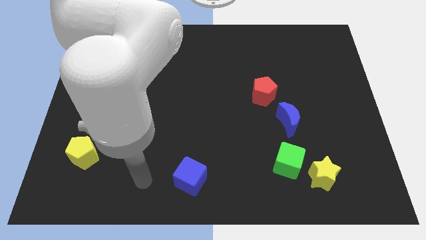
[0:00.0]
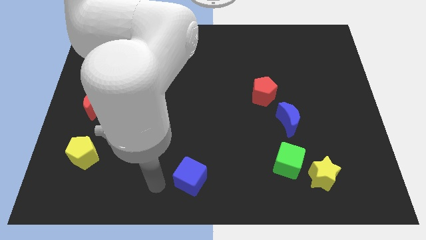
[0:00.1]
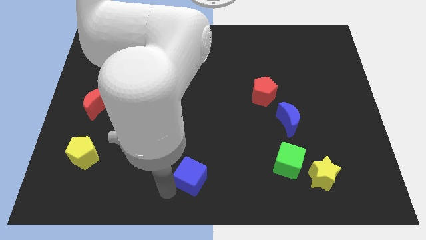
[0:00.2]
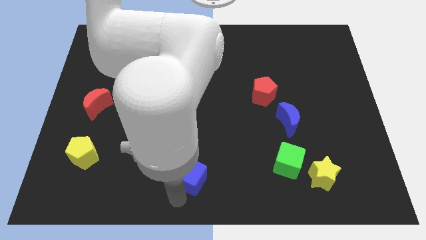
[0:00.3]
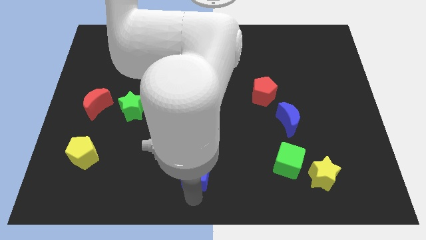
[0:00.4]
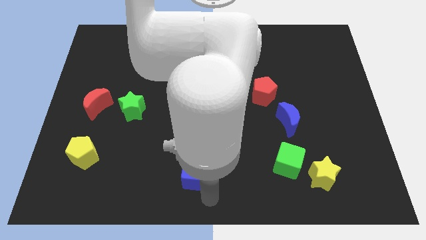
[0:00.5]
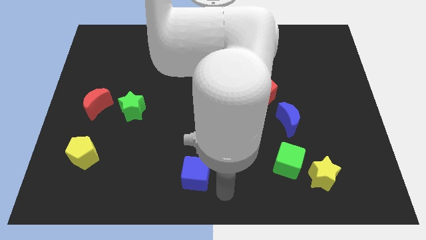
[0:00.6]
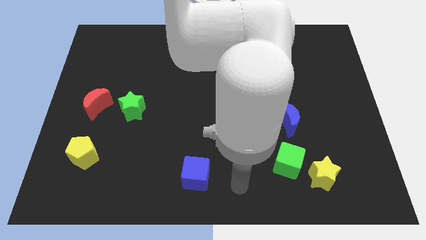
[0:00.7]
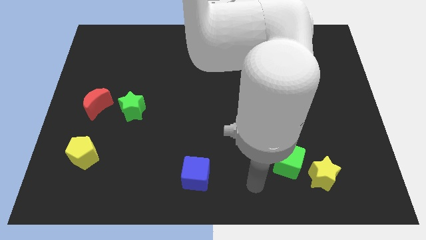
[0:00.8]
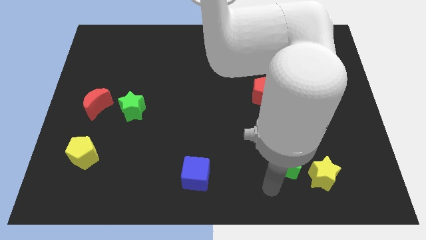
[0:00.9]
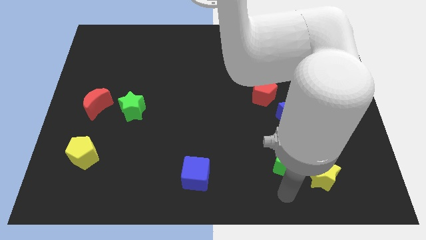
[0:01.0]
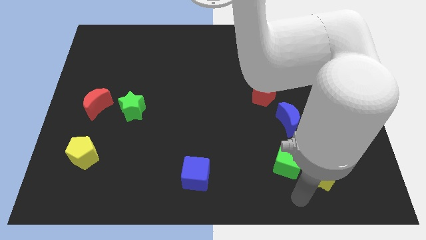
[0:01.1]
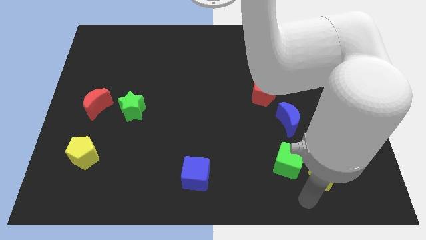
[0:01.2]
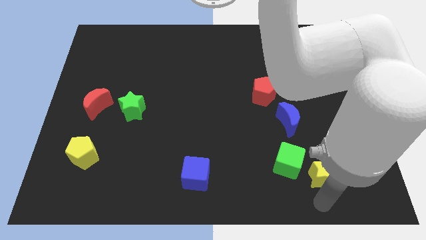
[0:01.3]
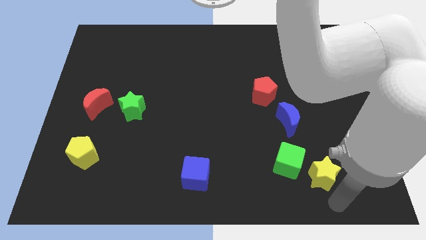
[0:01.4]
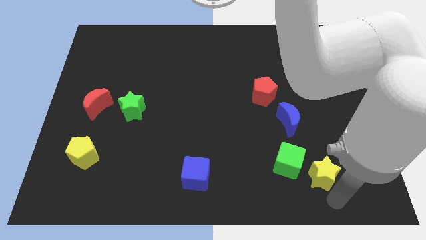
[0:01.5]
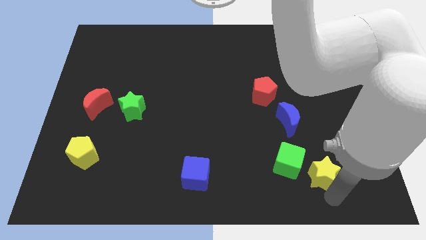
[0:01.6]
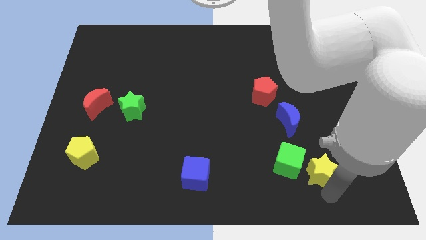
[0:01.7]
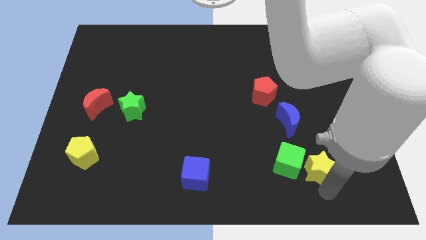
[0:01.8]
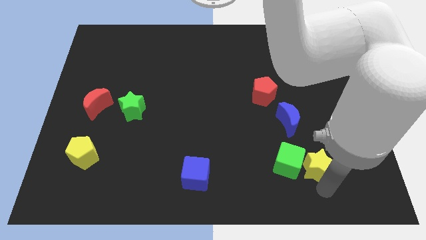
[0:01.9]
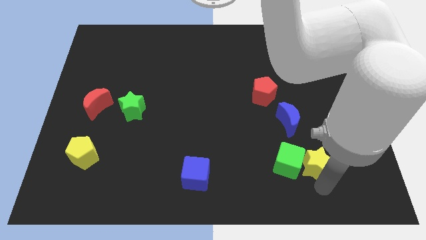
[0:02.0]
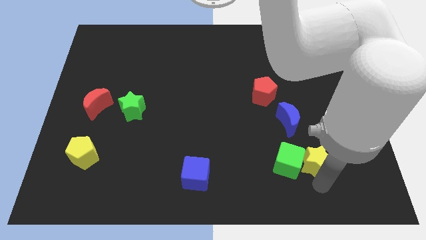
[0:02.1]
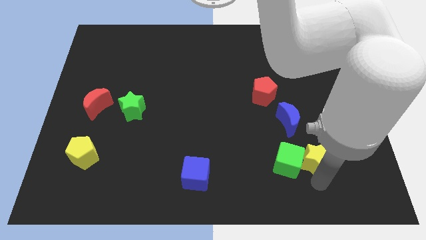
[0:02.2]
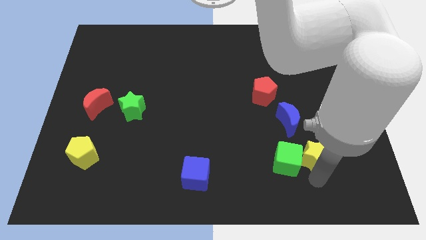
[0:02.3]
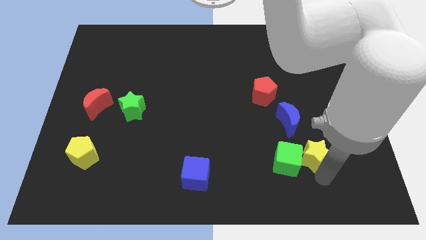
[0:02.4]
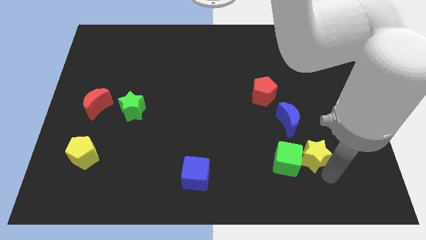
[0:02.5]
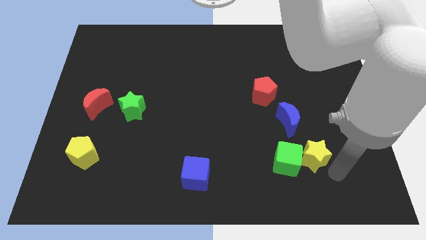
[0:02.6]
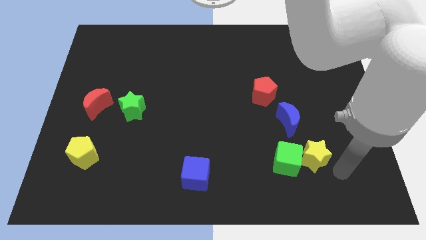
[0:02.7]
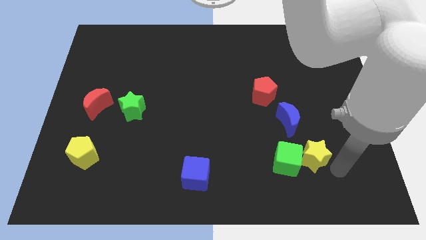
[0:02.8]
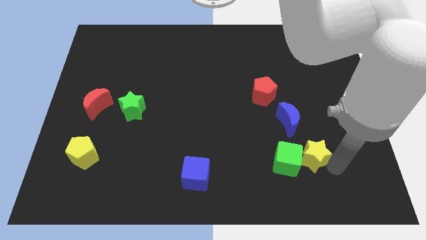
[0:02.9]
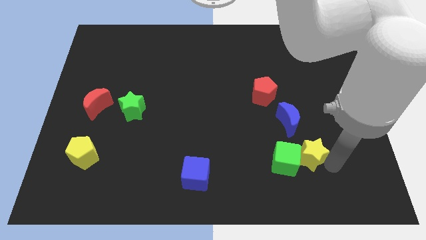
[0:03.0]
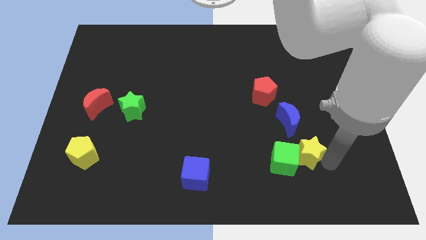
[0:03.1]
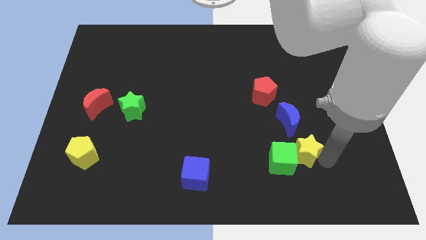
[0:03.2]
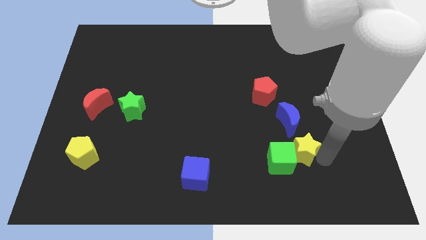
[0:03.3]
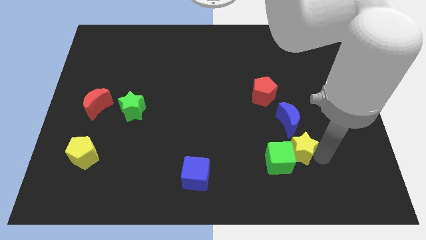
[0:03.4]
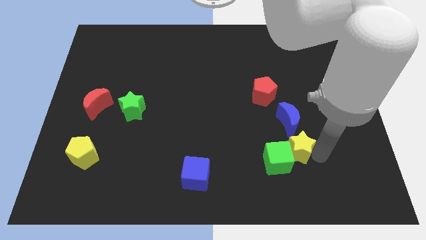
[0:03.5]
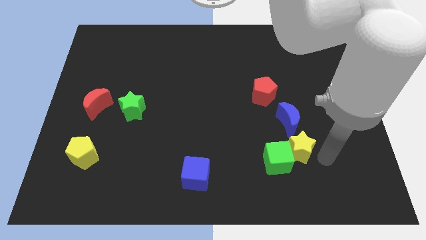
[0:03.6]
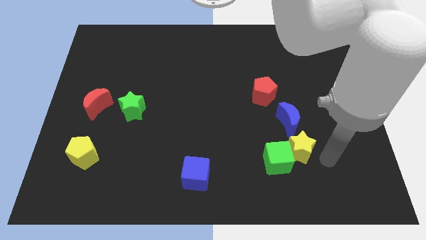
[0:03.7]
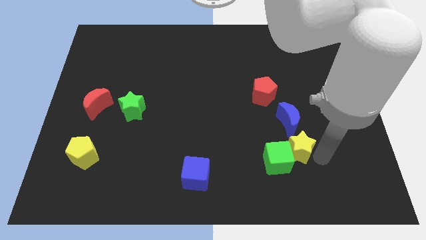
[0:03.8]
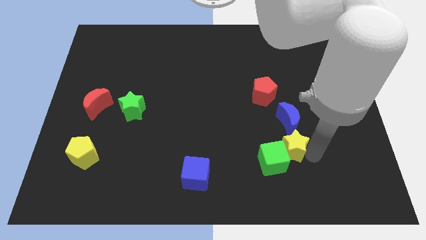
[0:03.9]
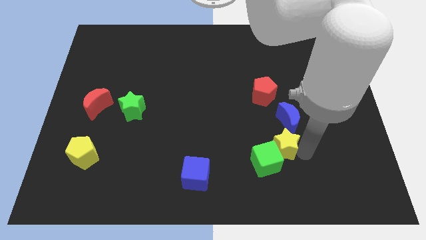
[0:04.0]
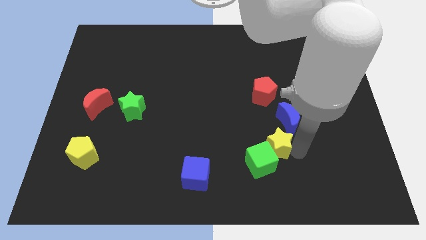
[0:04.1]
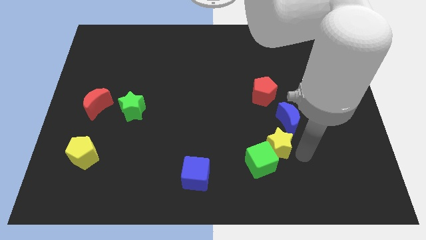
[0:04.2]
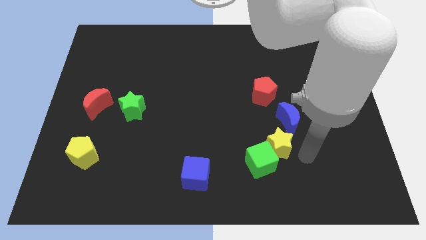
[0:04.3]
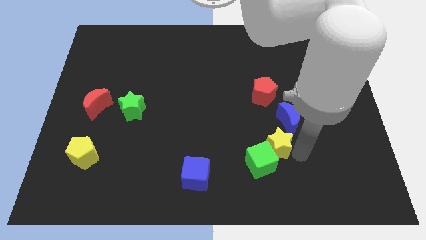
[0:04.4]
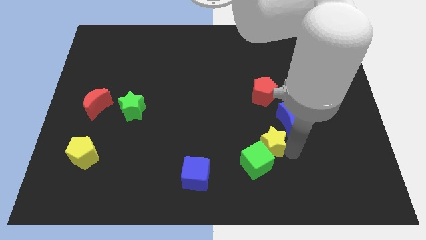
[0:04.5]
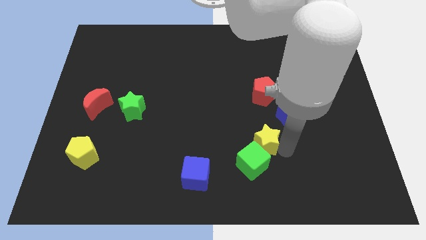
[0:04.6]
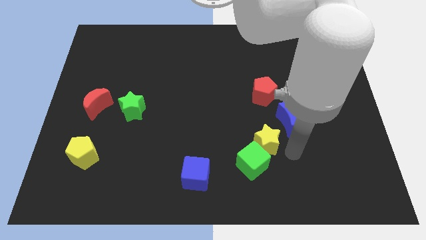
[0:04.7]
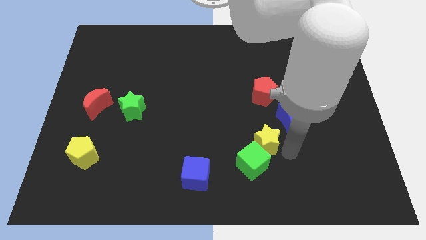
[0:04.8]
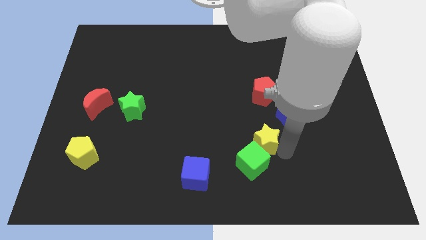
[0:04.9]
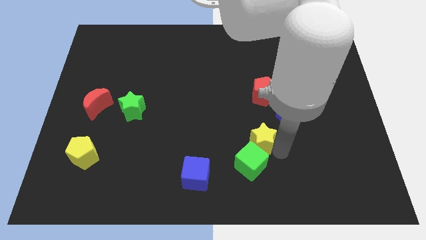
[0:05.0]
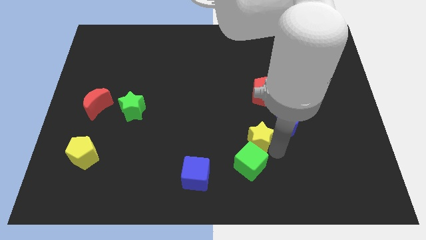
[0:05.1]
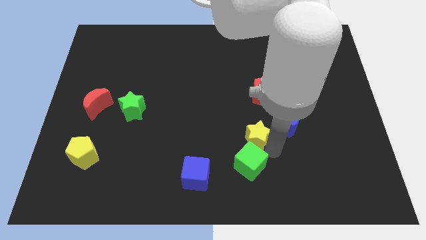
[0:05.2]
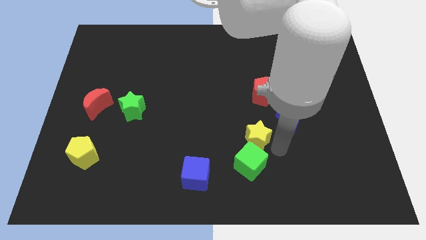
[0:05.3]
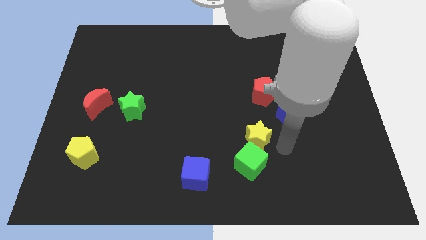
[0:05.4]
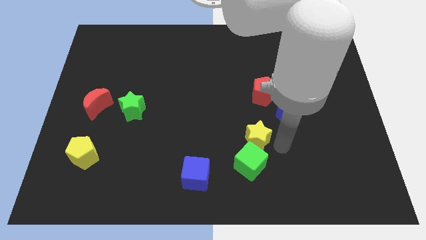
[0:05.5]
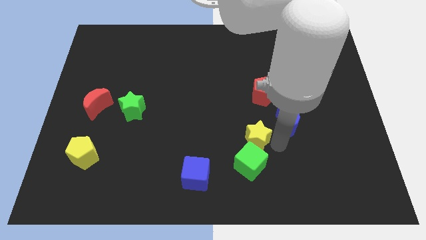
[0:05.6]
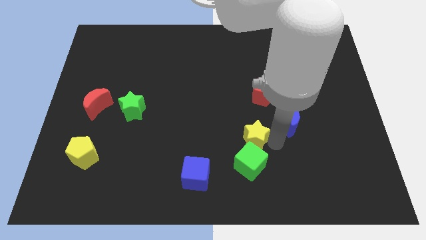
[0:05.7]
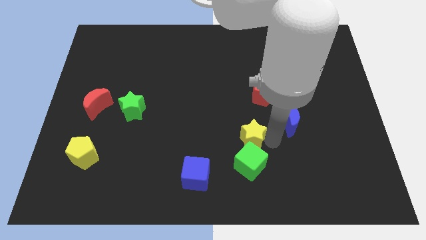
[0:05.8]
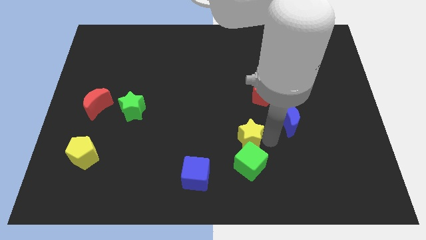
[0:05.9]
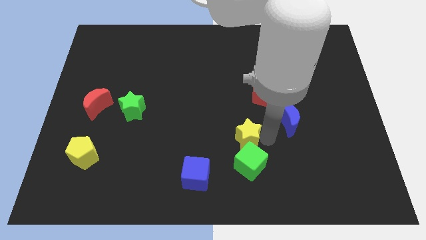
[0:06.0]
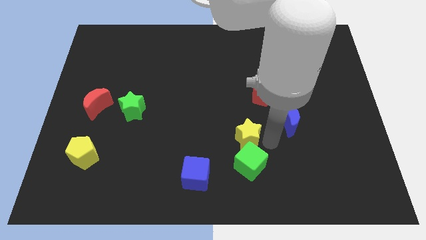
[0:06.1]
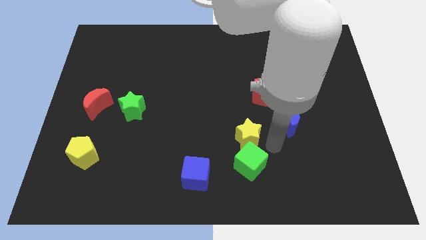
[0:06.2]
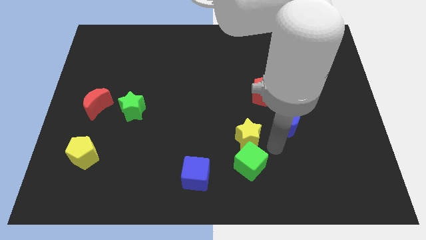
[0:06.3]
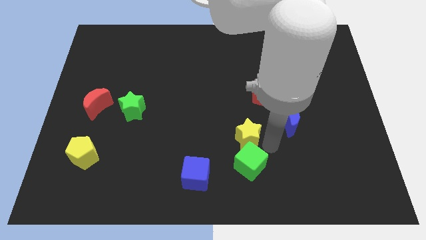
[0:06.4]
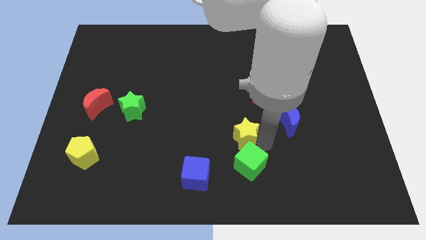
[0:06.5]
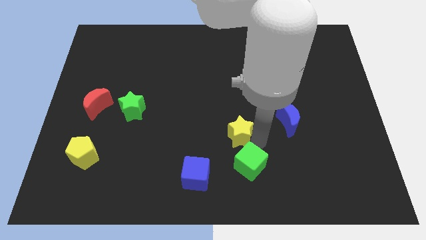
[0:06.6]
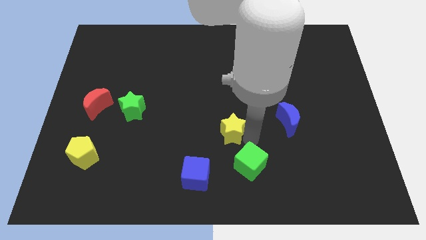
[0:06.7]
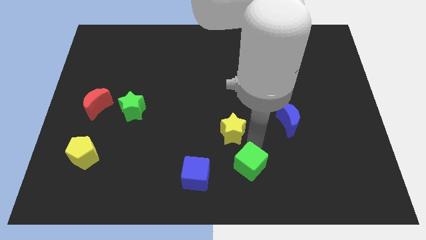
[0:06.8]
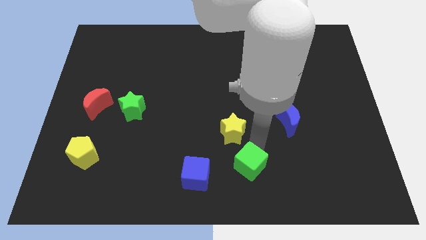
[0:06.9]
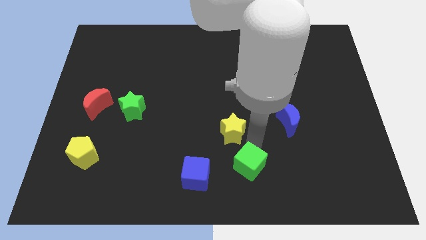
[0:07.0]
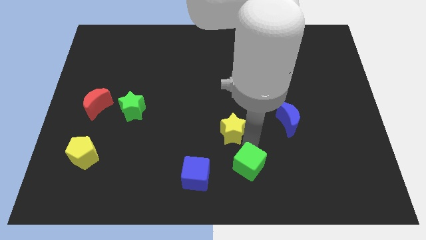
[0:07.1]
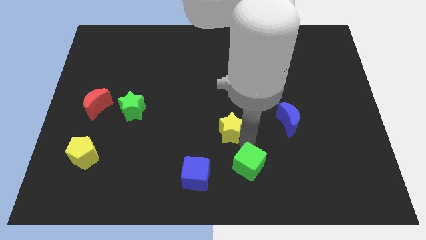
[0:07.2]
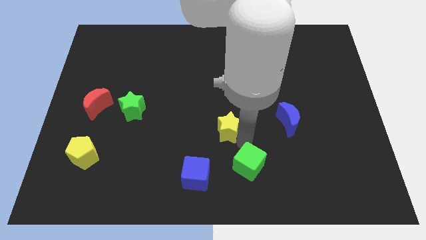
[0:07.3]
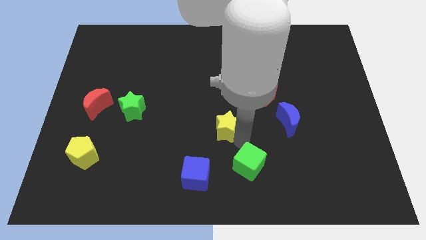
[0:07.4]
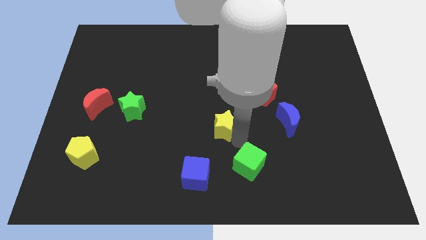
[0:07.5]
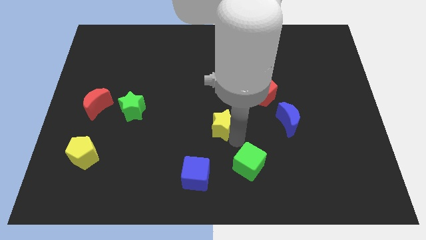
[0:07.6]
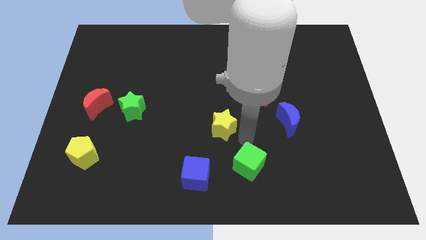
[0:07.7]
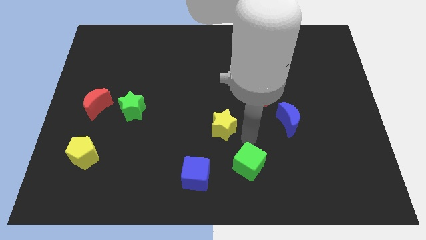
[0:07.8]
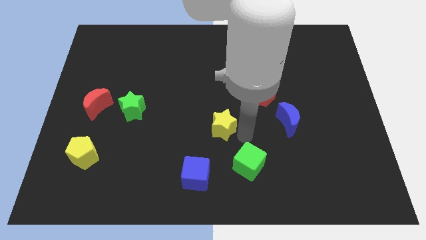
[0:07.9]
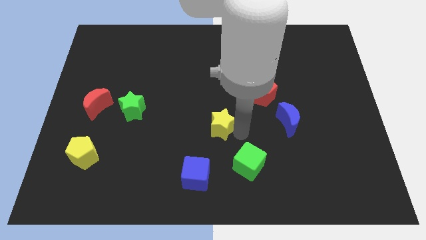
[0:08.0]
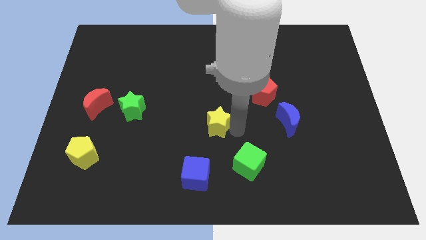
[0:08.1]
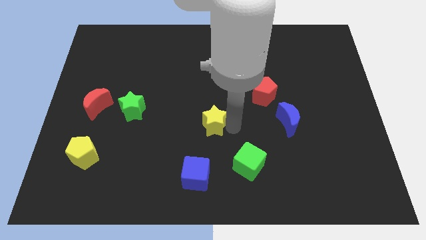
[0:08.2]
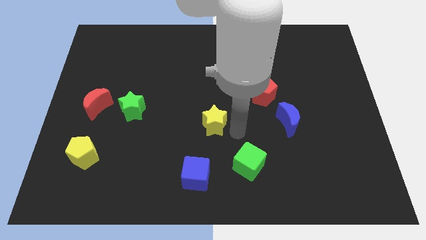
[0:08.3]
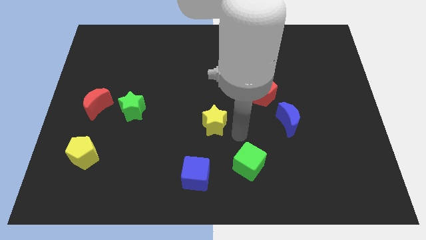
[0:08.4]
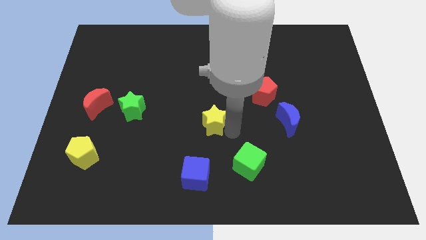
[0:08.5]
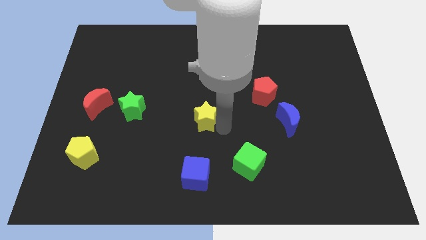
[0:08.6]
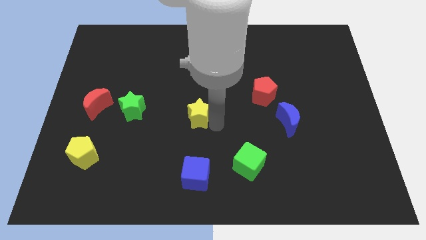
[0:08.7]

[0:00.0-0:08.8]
slide the yellow star right of the green star
